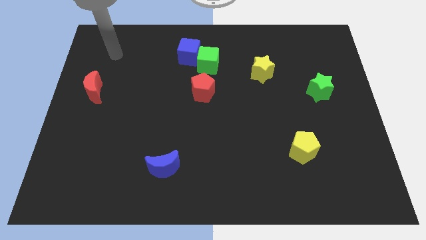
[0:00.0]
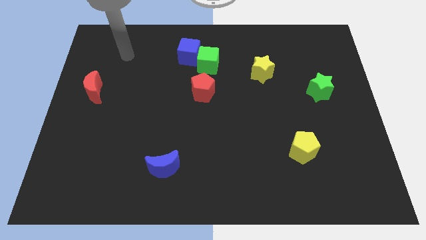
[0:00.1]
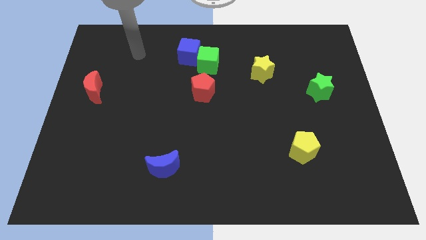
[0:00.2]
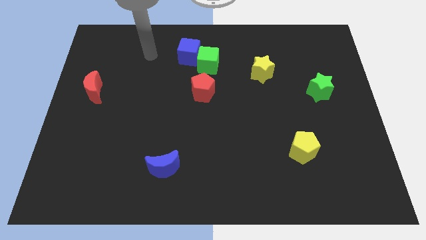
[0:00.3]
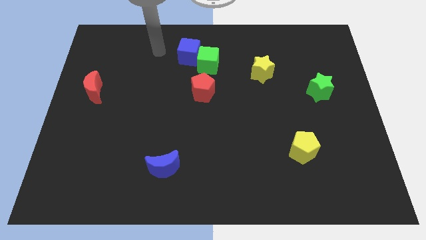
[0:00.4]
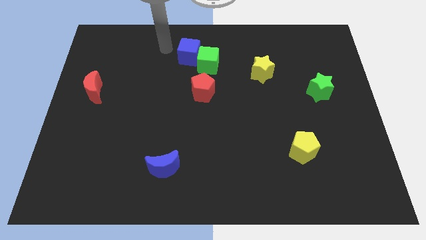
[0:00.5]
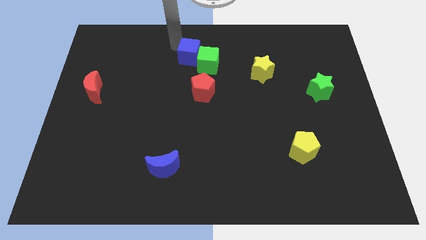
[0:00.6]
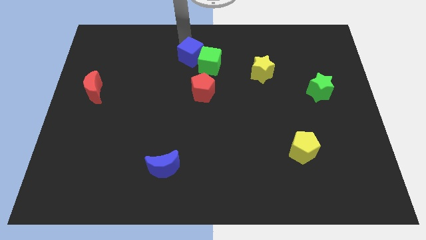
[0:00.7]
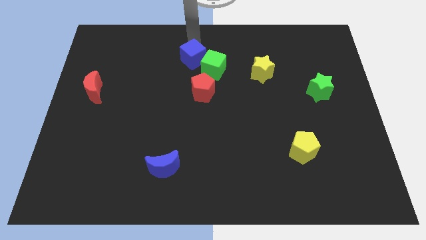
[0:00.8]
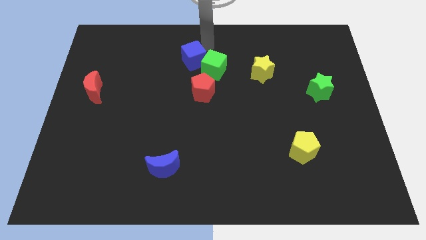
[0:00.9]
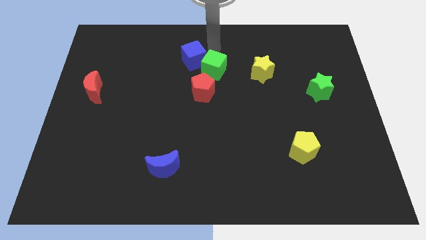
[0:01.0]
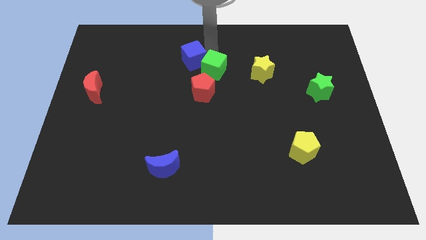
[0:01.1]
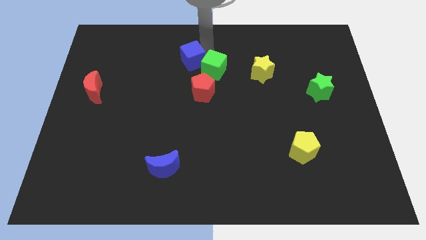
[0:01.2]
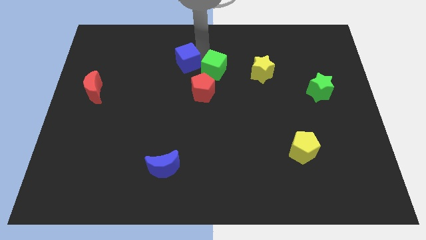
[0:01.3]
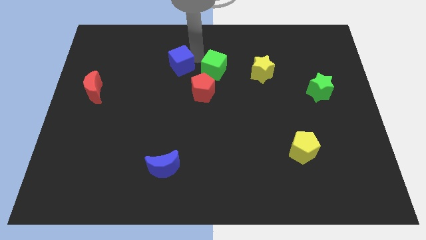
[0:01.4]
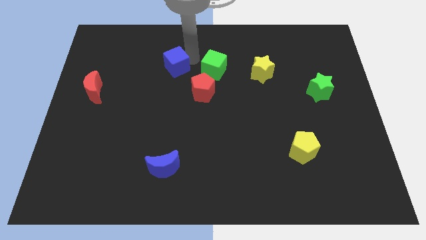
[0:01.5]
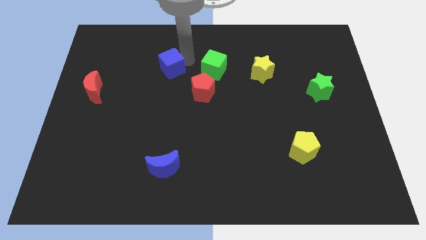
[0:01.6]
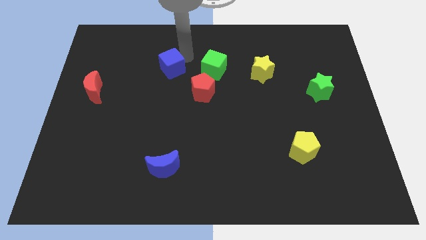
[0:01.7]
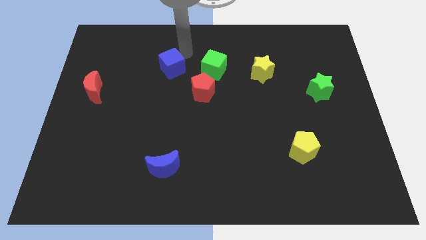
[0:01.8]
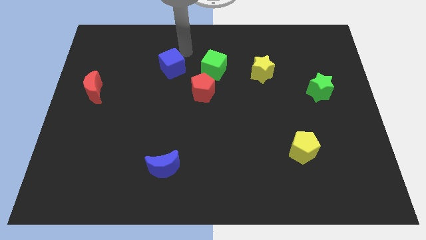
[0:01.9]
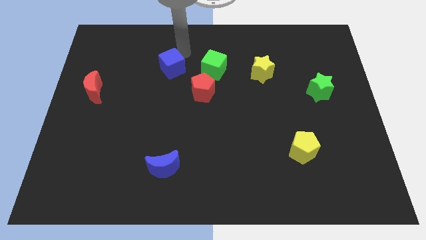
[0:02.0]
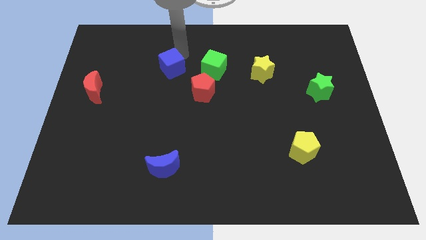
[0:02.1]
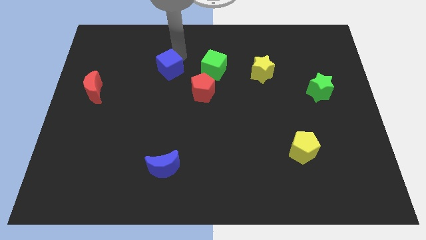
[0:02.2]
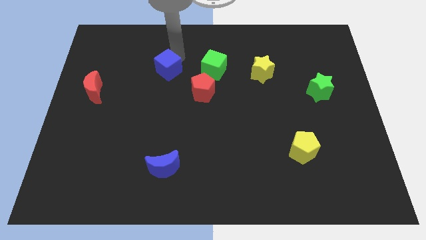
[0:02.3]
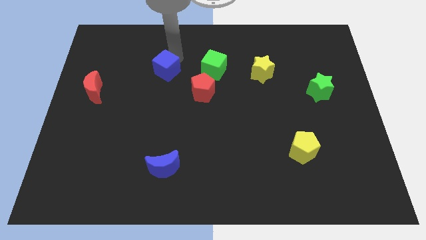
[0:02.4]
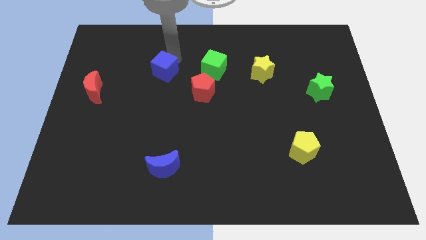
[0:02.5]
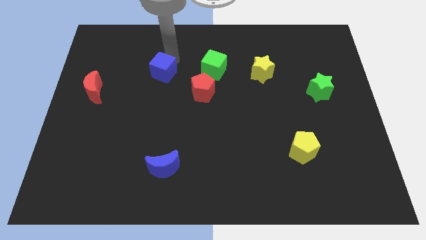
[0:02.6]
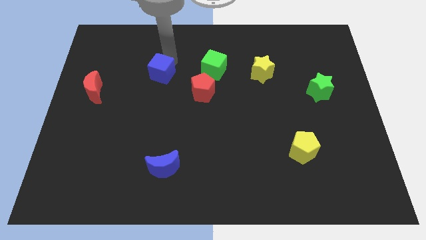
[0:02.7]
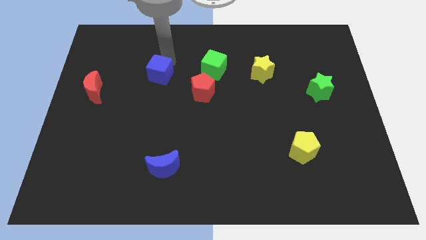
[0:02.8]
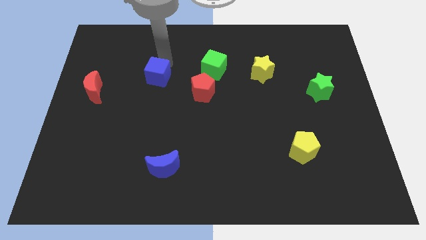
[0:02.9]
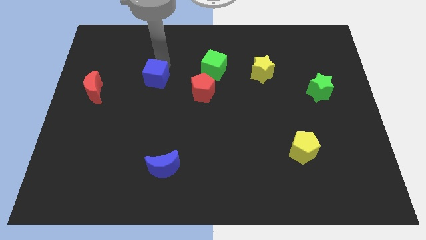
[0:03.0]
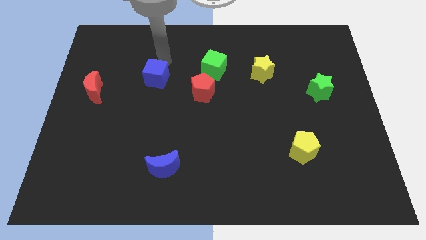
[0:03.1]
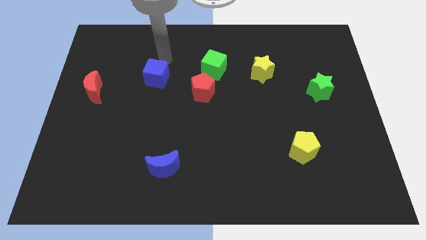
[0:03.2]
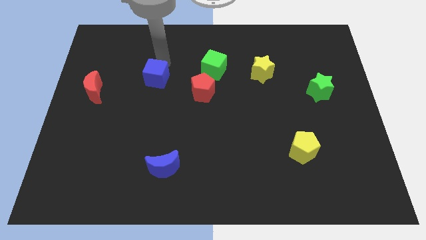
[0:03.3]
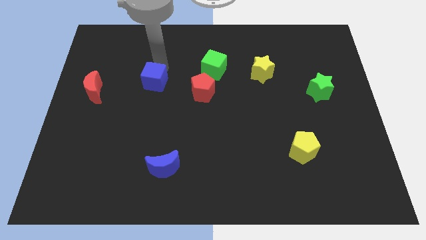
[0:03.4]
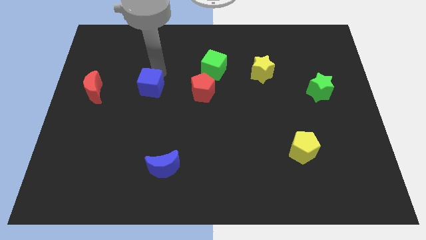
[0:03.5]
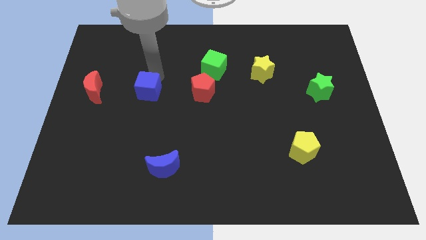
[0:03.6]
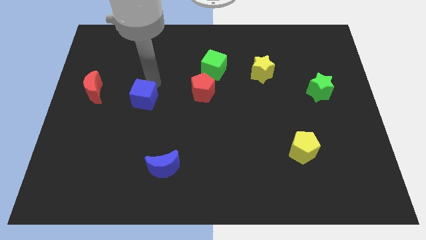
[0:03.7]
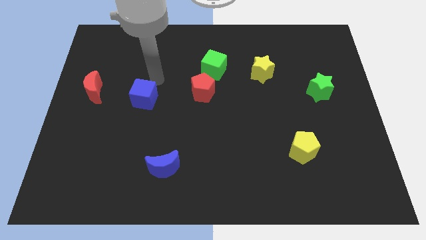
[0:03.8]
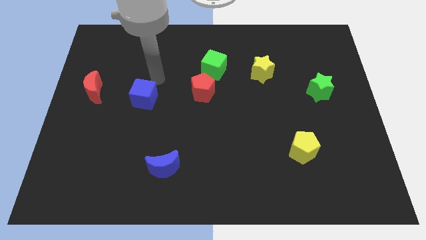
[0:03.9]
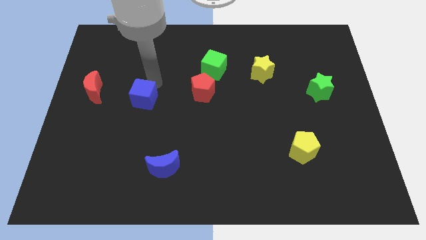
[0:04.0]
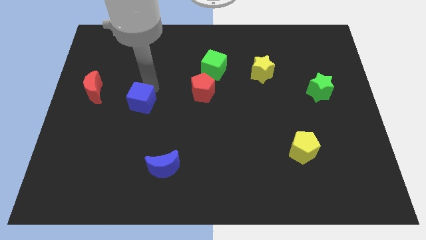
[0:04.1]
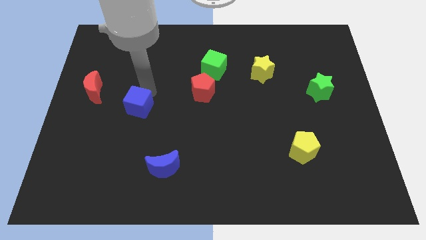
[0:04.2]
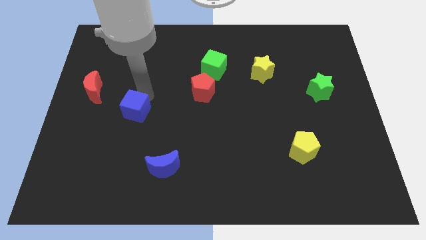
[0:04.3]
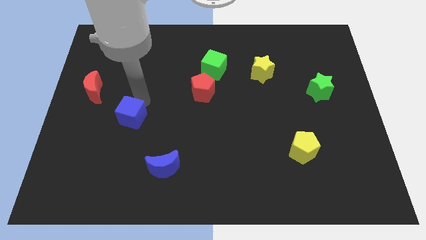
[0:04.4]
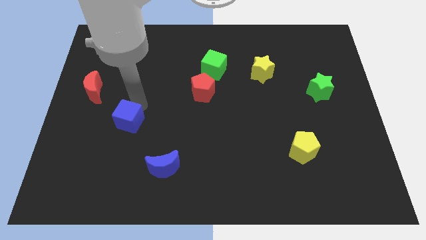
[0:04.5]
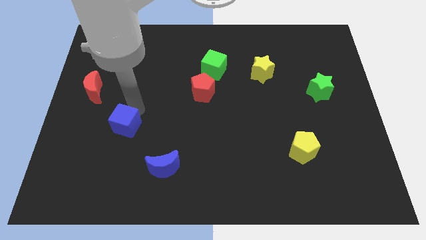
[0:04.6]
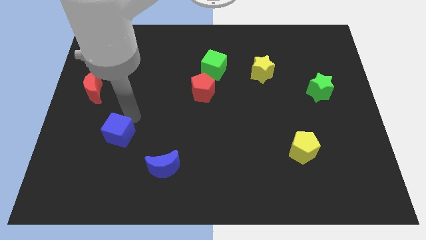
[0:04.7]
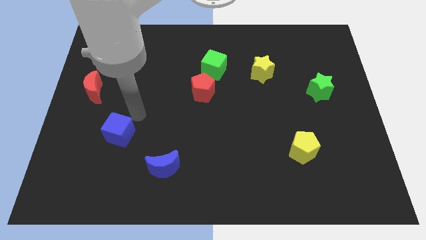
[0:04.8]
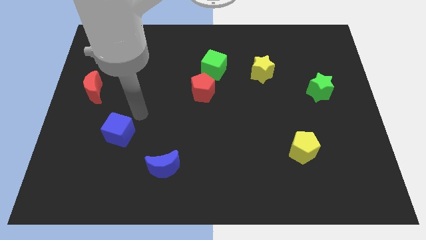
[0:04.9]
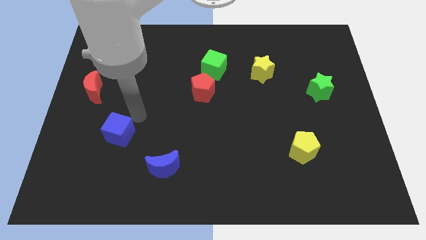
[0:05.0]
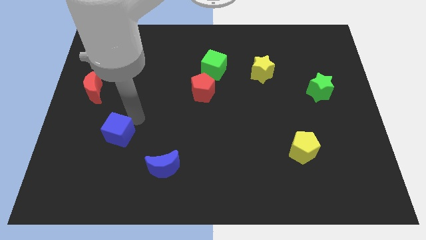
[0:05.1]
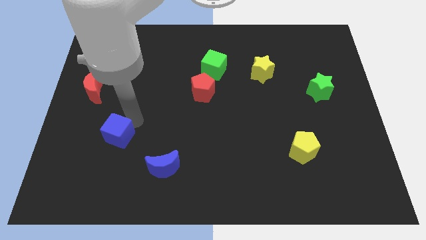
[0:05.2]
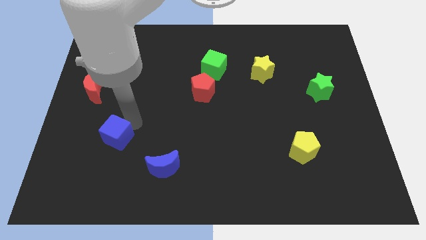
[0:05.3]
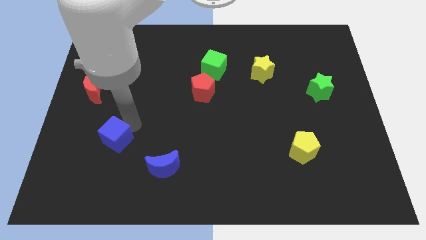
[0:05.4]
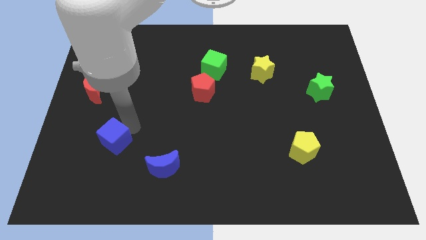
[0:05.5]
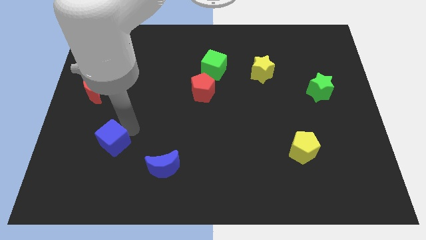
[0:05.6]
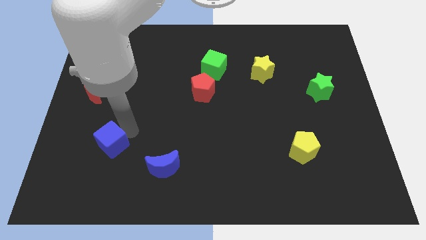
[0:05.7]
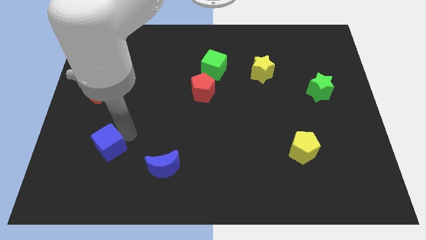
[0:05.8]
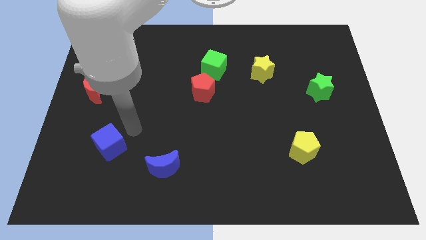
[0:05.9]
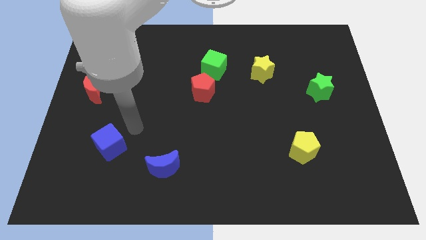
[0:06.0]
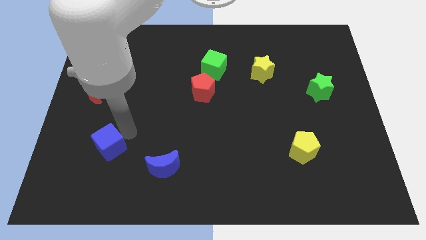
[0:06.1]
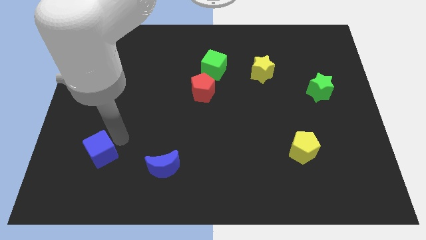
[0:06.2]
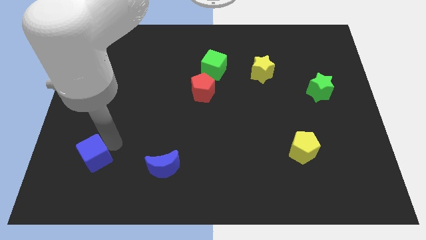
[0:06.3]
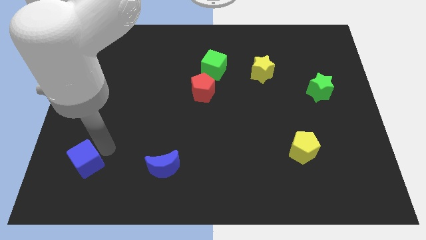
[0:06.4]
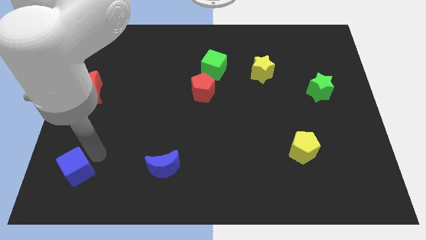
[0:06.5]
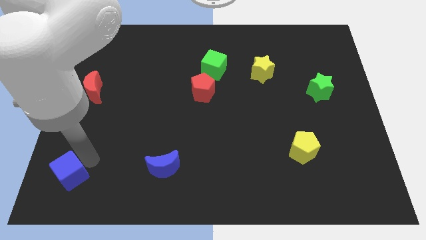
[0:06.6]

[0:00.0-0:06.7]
push the blue cube to the bottom left

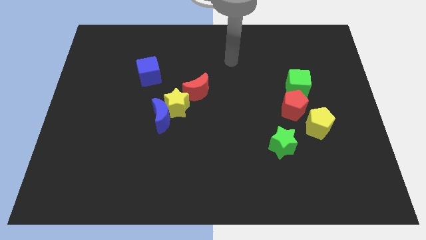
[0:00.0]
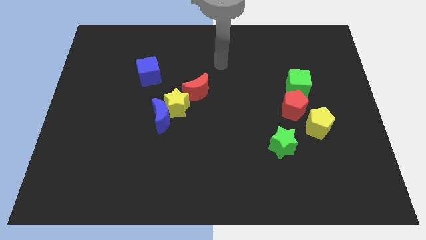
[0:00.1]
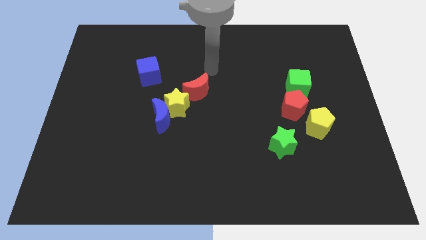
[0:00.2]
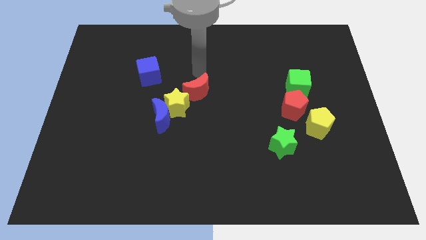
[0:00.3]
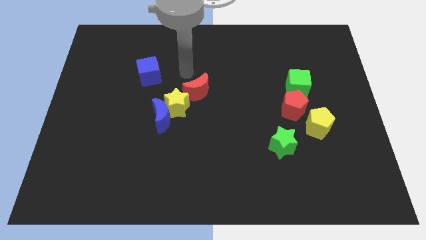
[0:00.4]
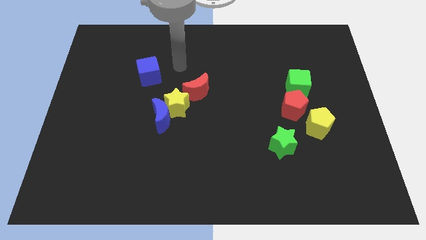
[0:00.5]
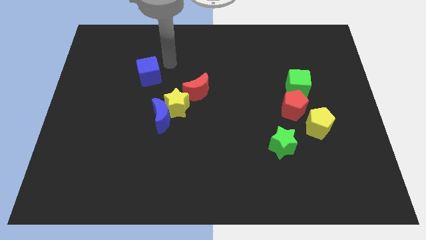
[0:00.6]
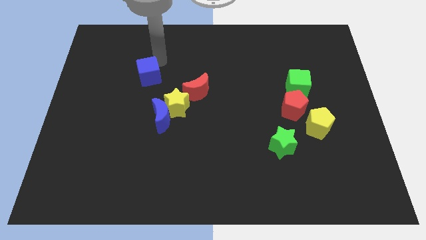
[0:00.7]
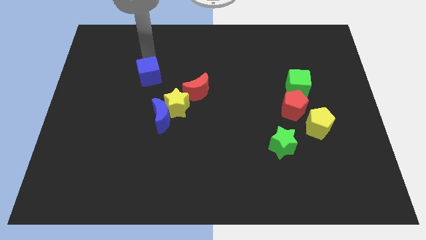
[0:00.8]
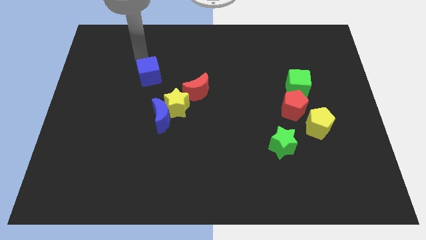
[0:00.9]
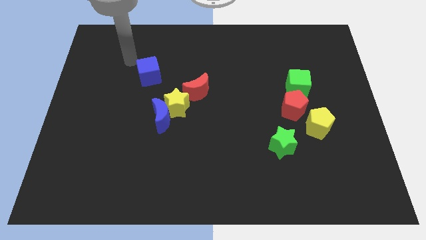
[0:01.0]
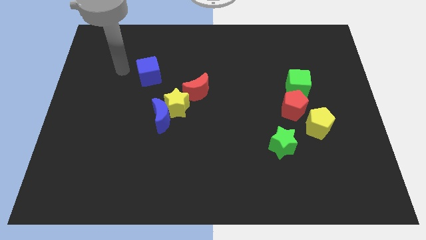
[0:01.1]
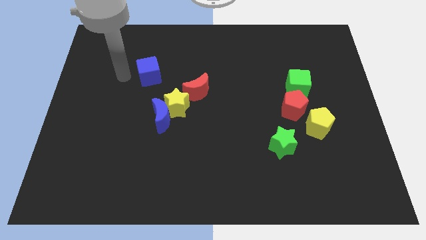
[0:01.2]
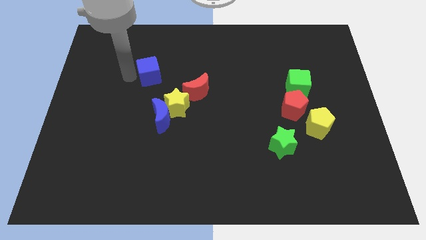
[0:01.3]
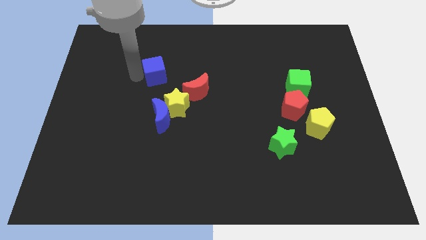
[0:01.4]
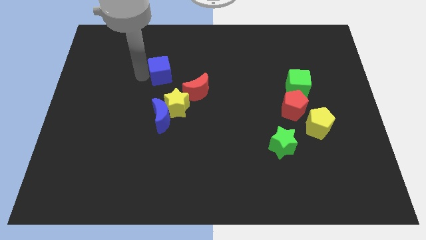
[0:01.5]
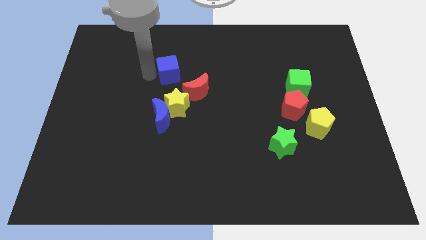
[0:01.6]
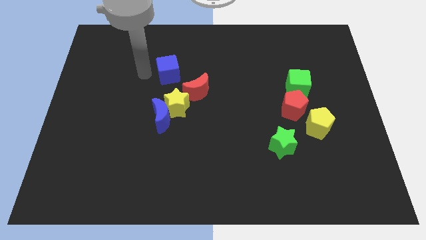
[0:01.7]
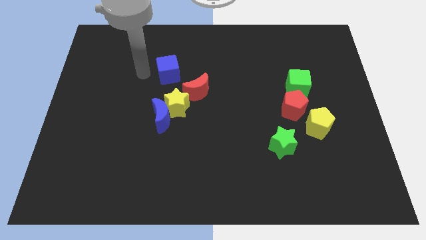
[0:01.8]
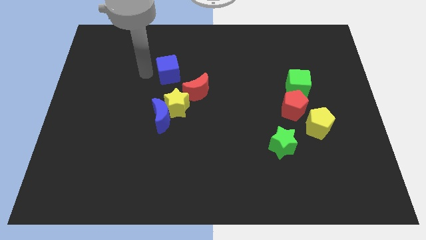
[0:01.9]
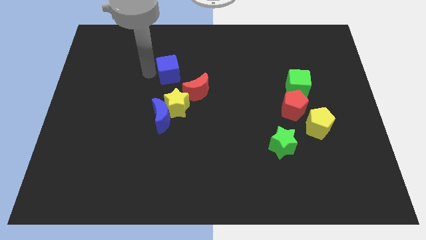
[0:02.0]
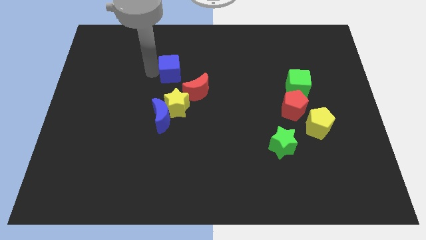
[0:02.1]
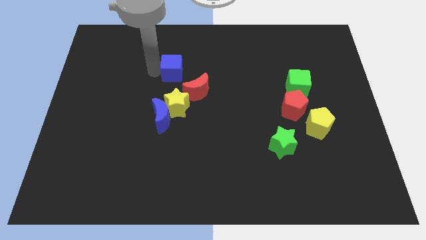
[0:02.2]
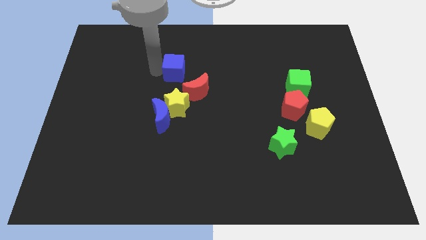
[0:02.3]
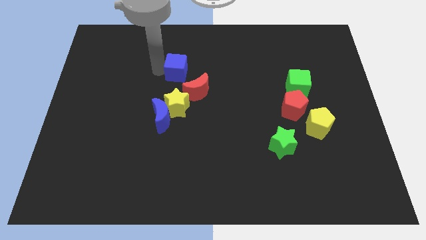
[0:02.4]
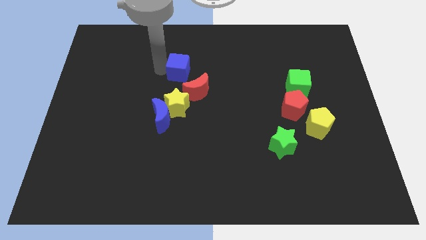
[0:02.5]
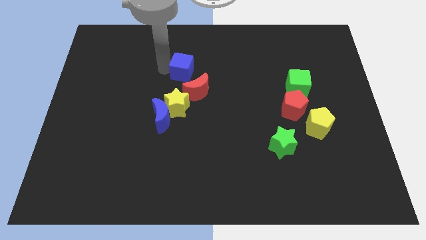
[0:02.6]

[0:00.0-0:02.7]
slide the blue cube to the middle of the board
